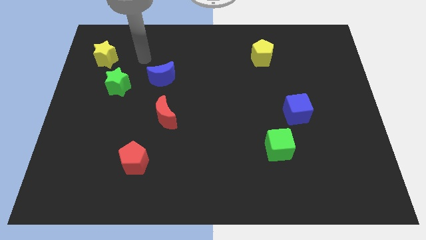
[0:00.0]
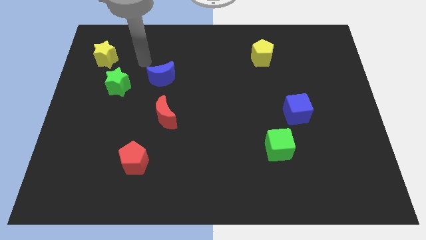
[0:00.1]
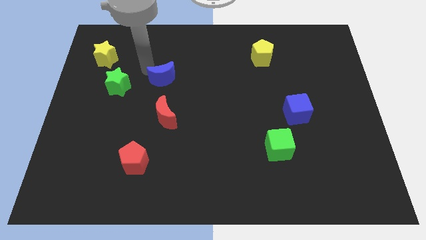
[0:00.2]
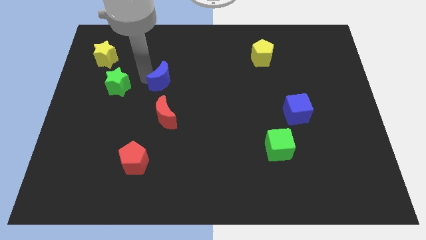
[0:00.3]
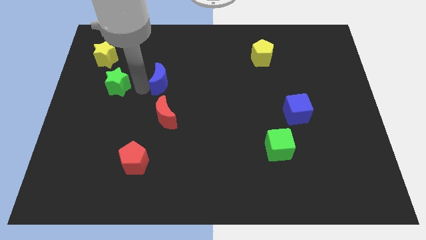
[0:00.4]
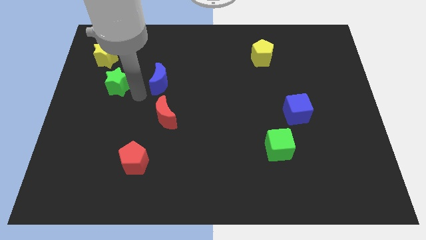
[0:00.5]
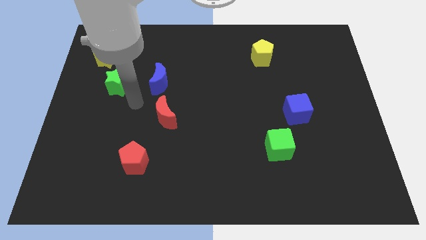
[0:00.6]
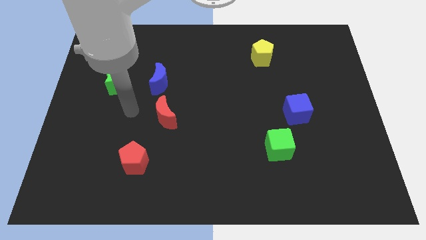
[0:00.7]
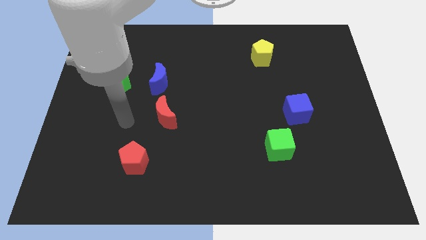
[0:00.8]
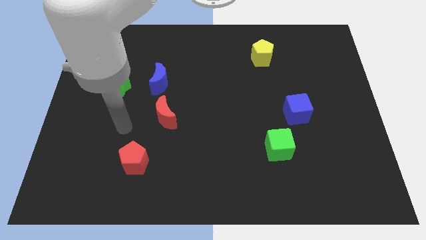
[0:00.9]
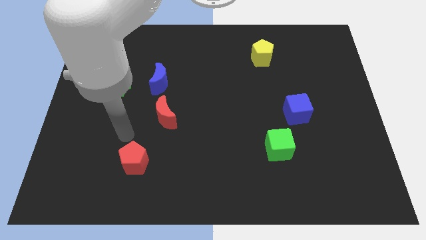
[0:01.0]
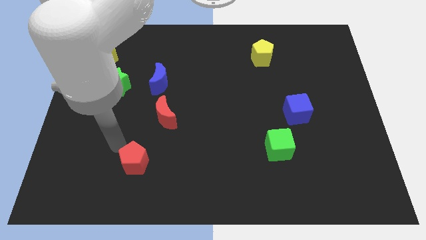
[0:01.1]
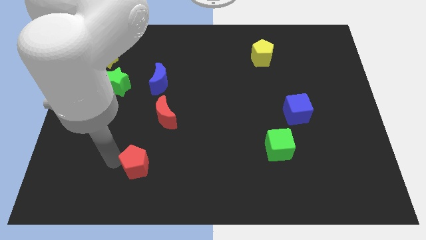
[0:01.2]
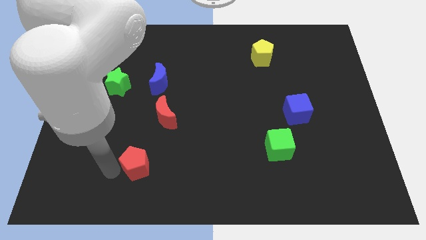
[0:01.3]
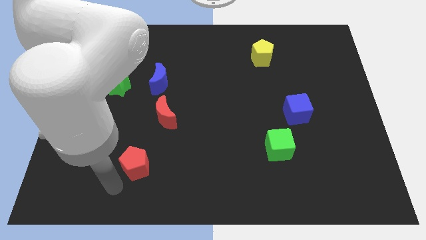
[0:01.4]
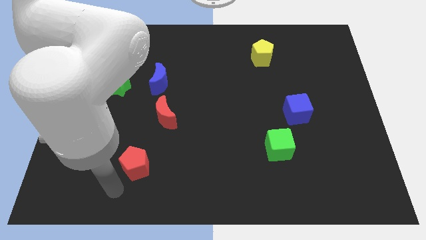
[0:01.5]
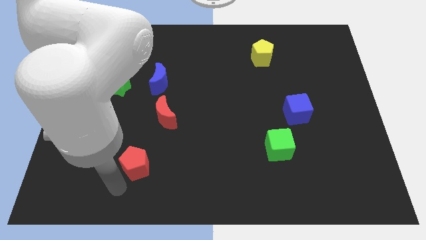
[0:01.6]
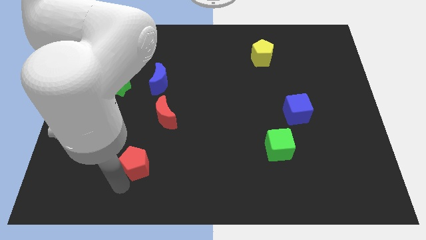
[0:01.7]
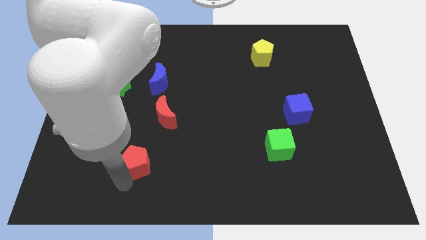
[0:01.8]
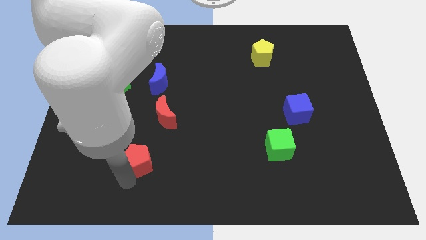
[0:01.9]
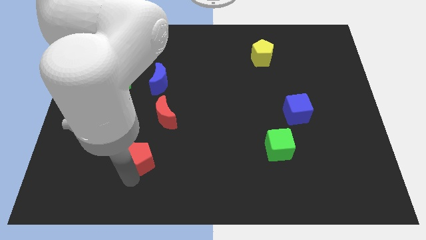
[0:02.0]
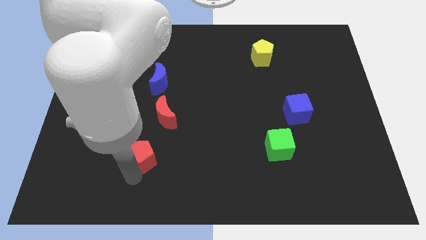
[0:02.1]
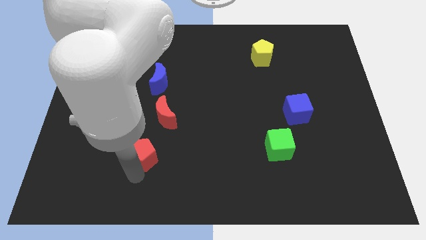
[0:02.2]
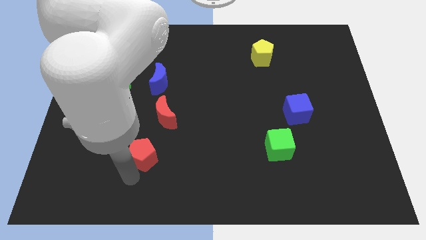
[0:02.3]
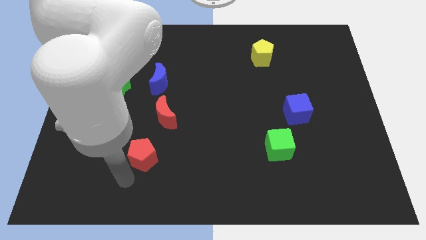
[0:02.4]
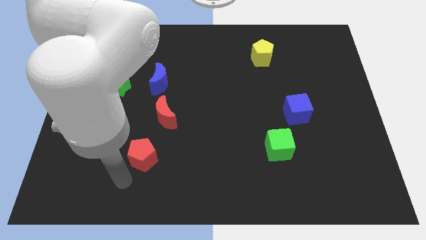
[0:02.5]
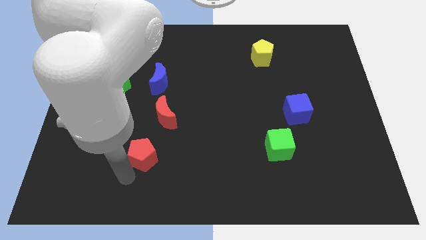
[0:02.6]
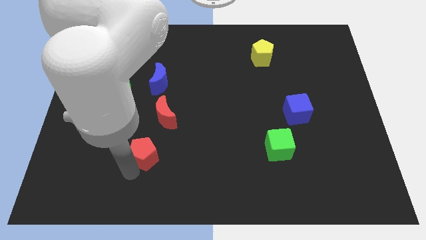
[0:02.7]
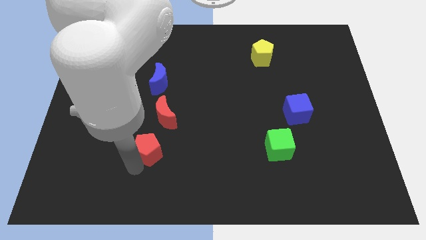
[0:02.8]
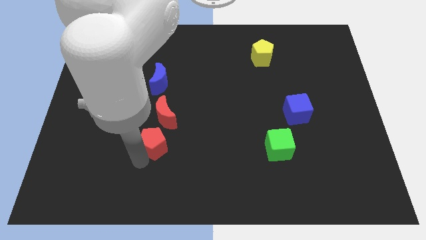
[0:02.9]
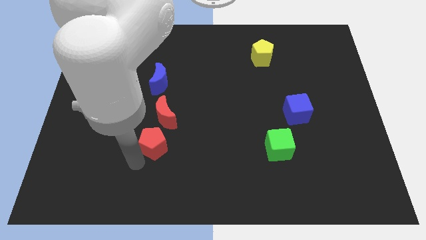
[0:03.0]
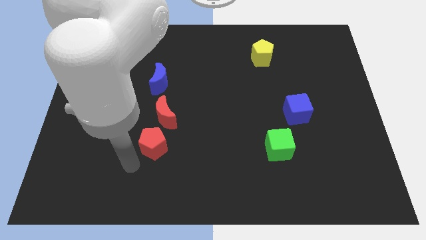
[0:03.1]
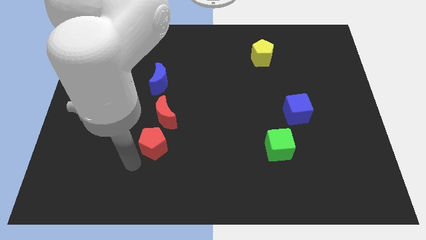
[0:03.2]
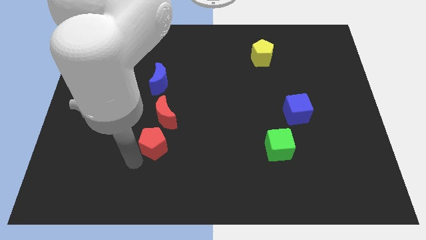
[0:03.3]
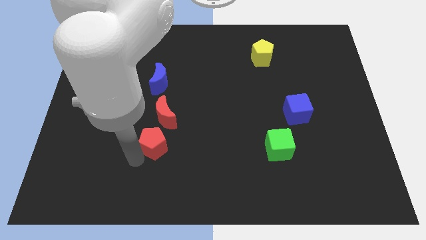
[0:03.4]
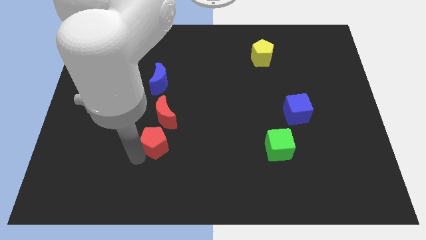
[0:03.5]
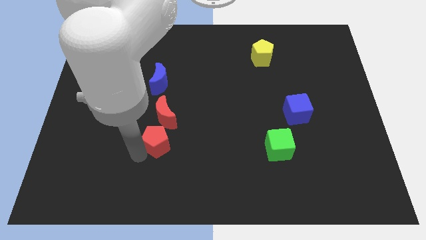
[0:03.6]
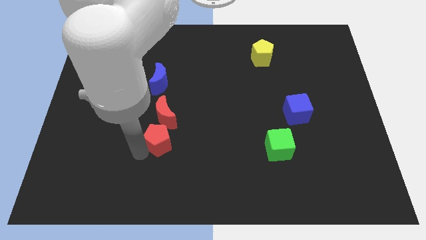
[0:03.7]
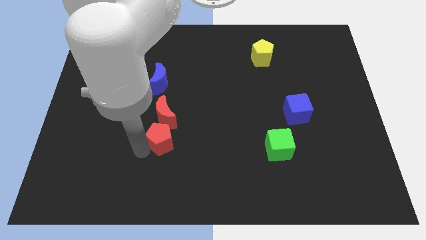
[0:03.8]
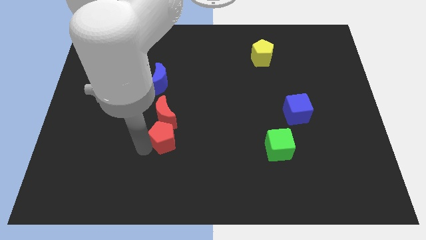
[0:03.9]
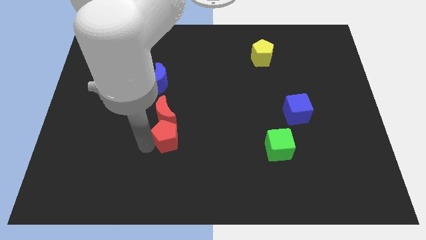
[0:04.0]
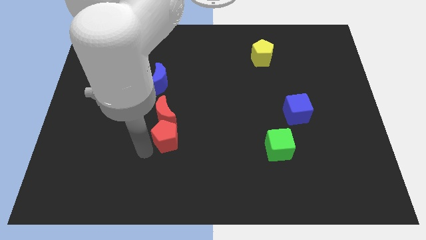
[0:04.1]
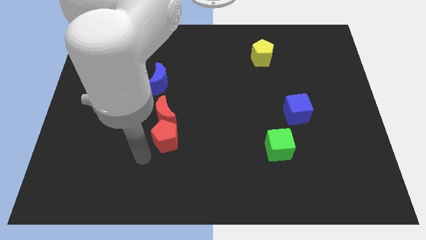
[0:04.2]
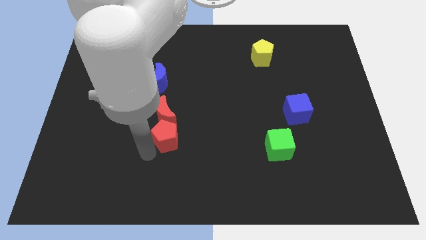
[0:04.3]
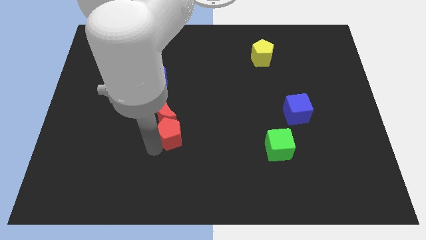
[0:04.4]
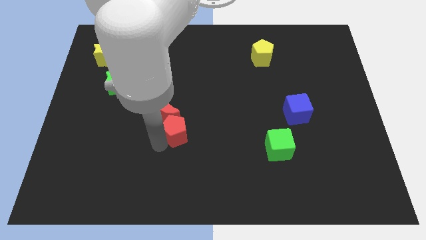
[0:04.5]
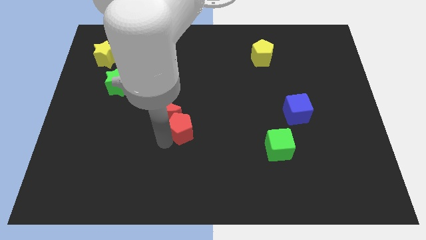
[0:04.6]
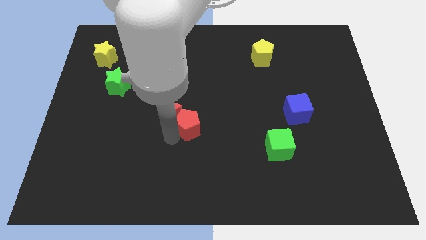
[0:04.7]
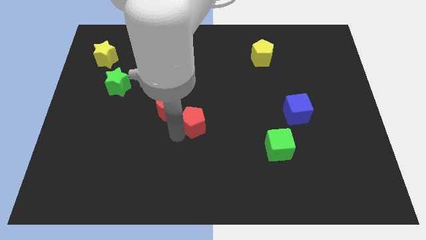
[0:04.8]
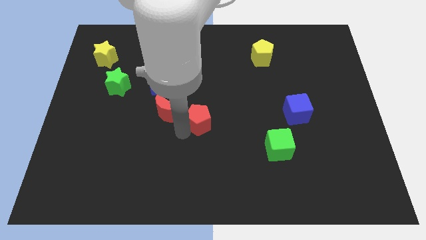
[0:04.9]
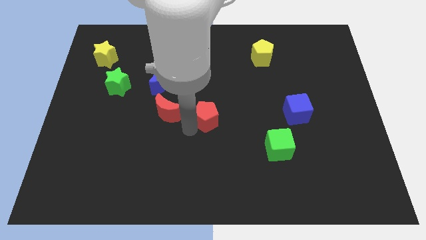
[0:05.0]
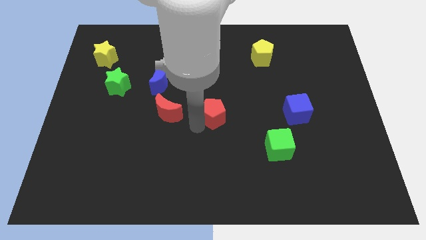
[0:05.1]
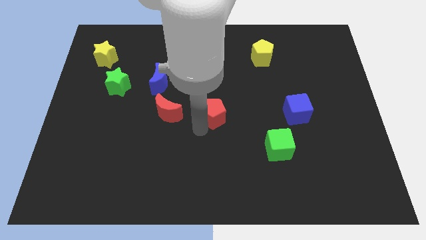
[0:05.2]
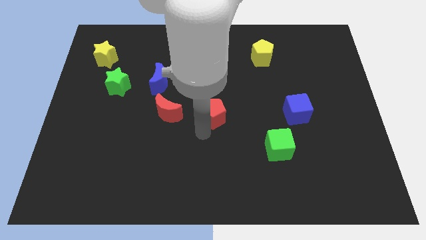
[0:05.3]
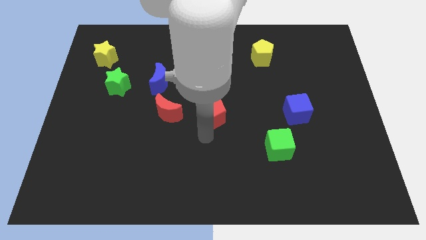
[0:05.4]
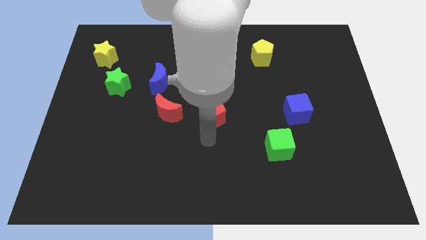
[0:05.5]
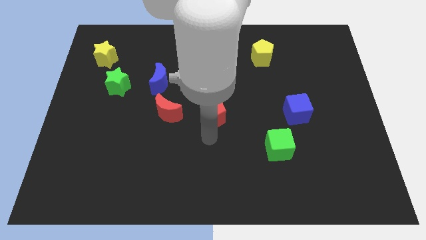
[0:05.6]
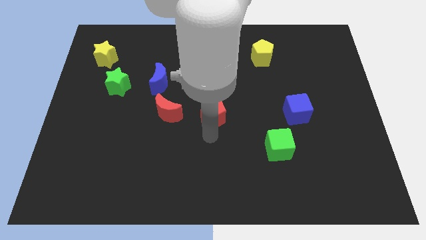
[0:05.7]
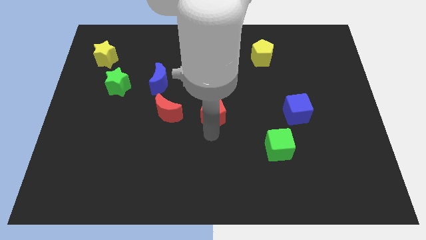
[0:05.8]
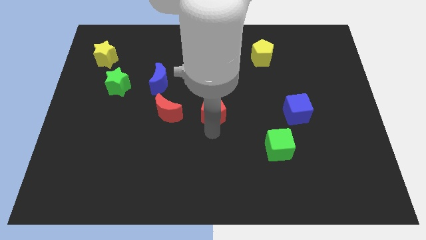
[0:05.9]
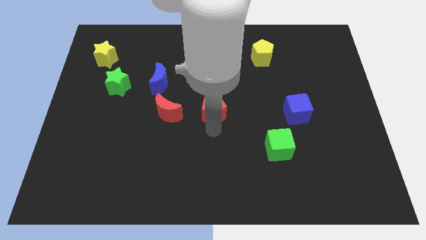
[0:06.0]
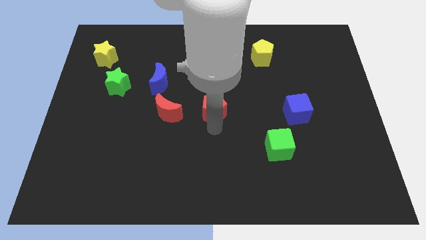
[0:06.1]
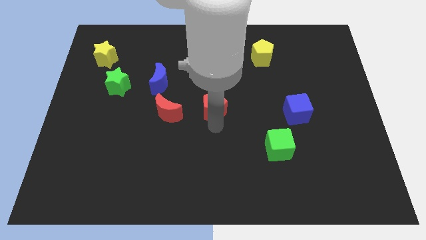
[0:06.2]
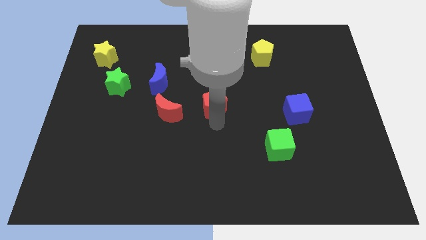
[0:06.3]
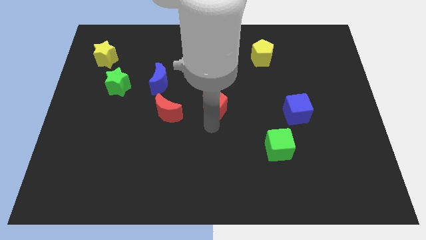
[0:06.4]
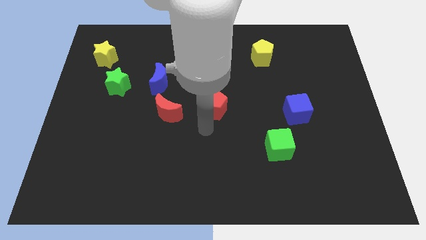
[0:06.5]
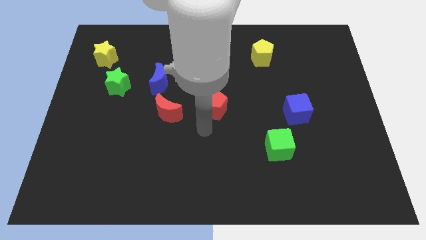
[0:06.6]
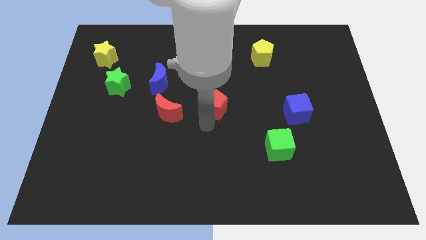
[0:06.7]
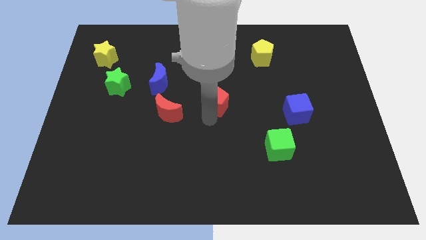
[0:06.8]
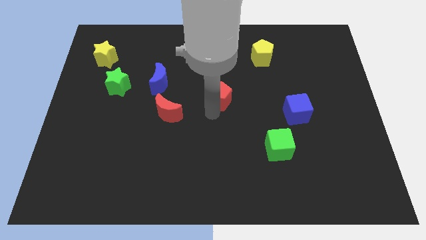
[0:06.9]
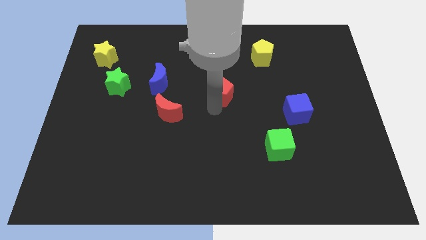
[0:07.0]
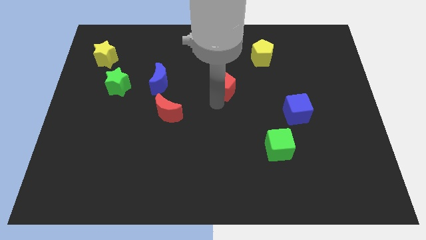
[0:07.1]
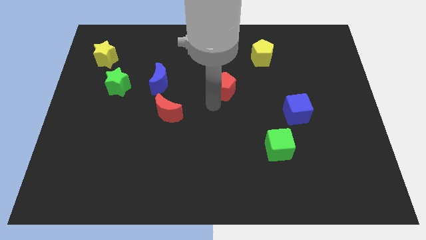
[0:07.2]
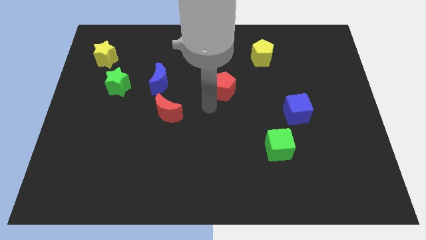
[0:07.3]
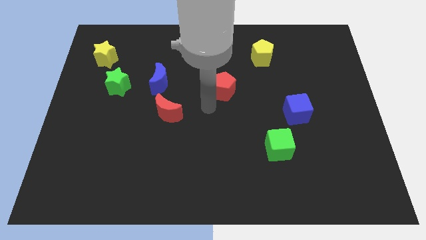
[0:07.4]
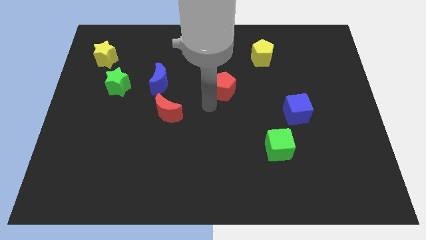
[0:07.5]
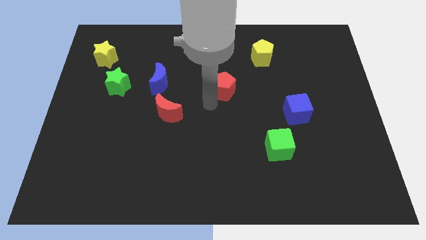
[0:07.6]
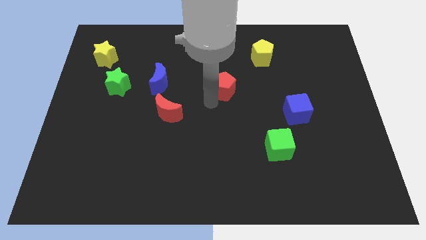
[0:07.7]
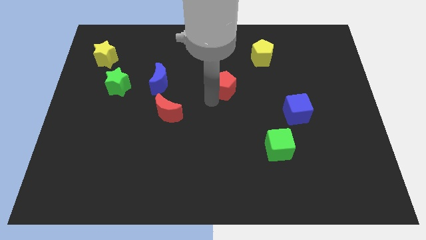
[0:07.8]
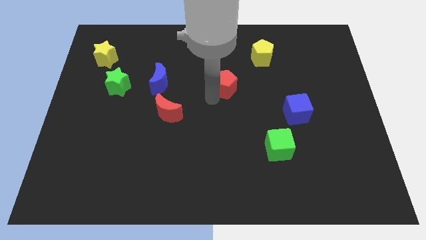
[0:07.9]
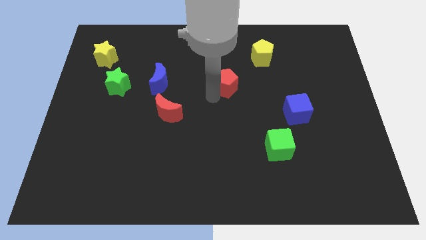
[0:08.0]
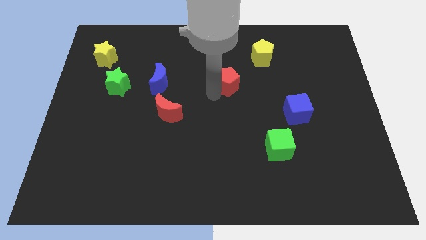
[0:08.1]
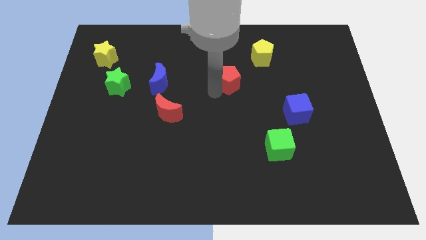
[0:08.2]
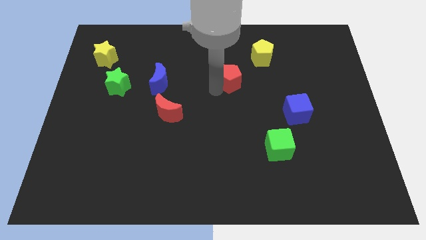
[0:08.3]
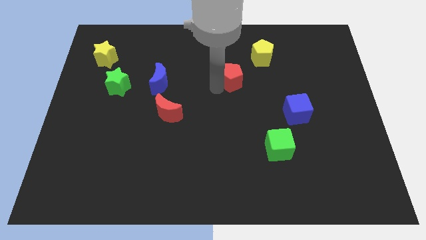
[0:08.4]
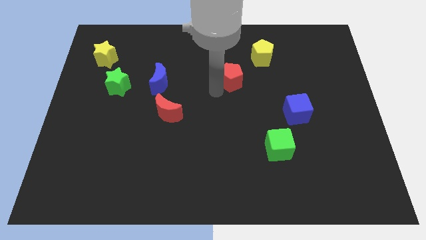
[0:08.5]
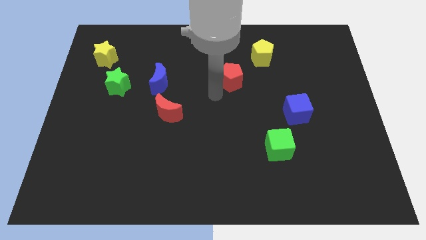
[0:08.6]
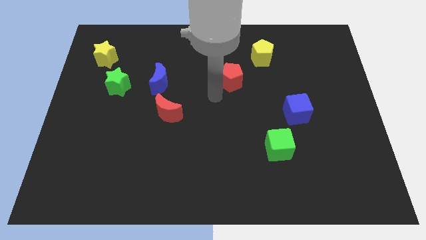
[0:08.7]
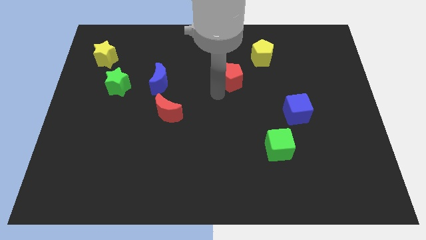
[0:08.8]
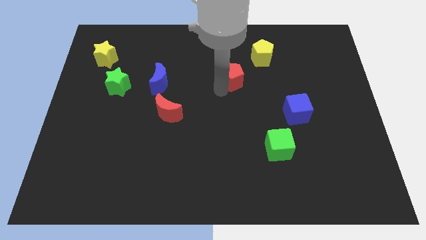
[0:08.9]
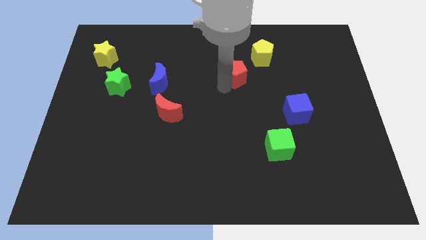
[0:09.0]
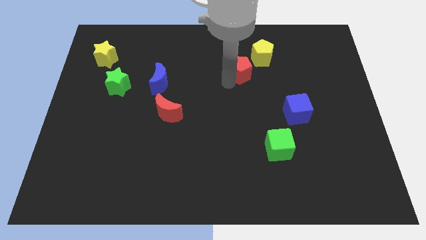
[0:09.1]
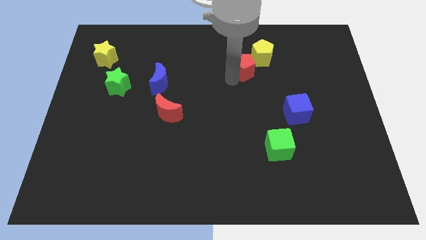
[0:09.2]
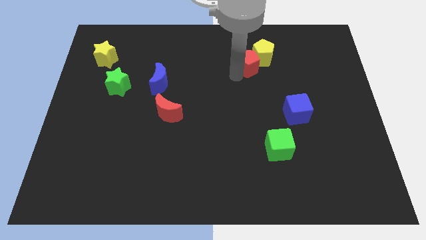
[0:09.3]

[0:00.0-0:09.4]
slide the red pentagon towards the yellow pentagon
